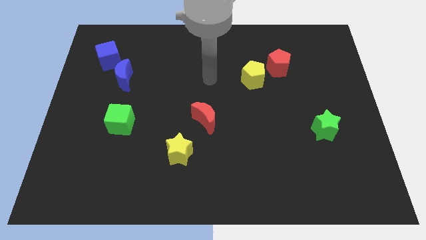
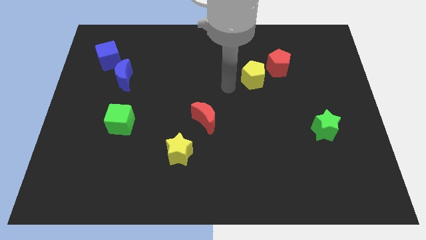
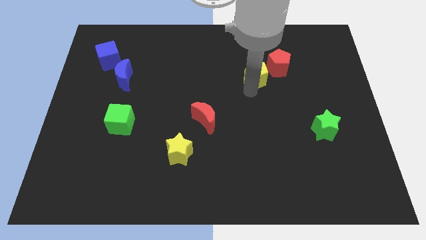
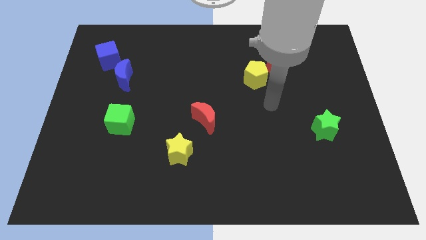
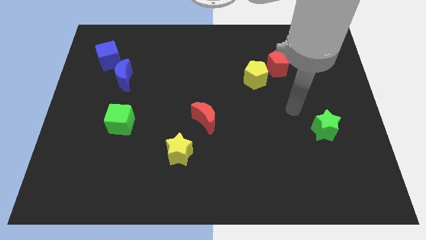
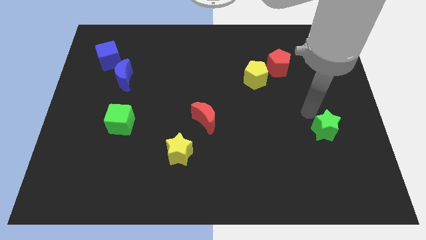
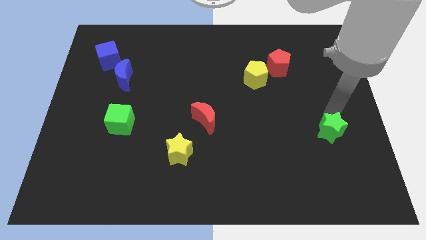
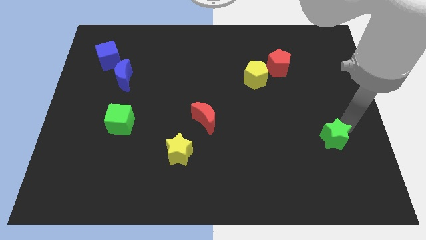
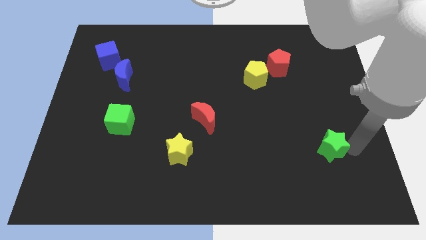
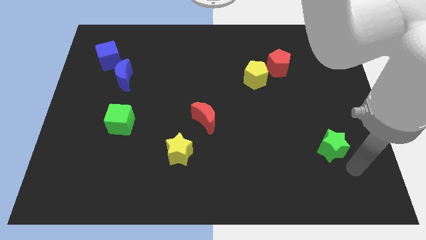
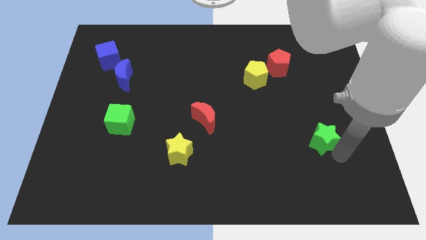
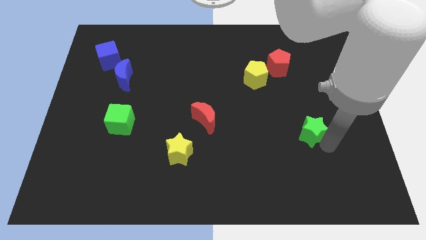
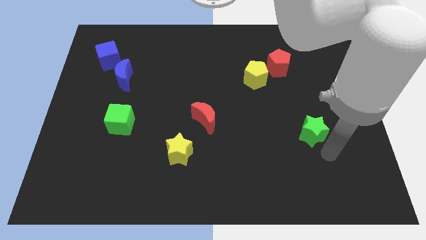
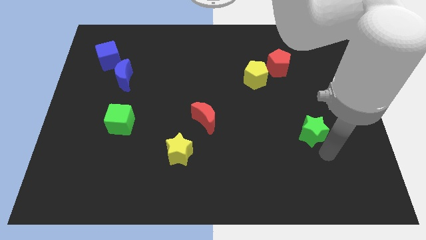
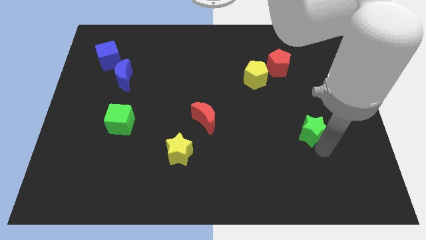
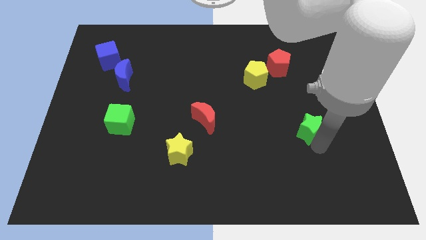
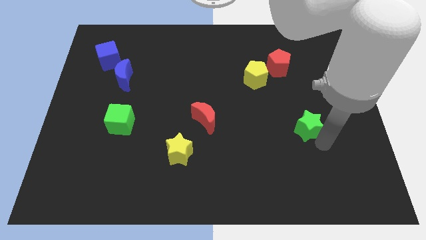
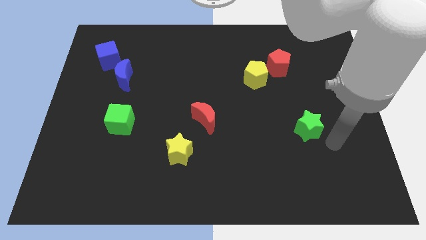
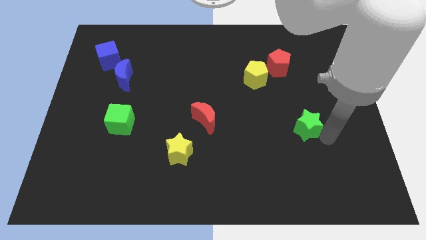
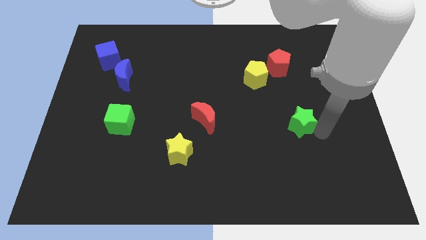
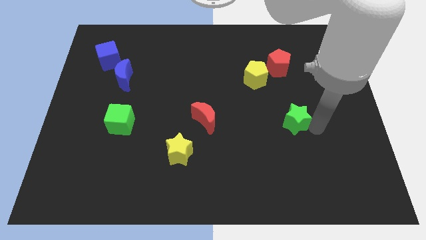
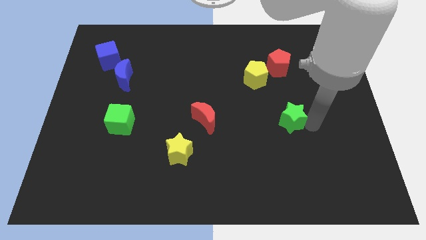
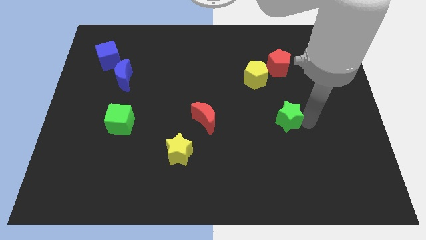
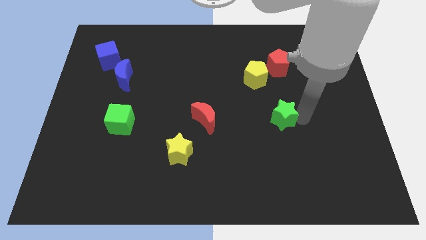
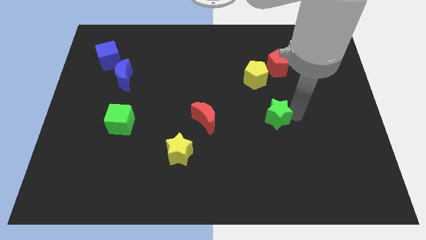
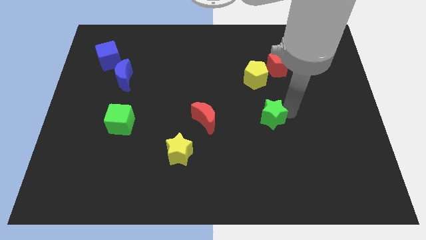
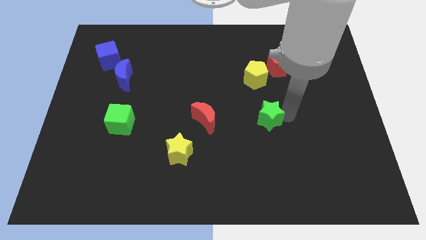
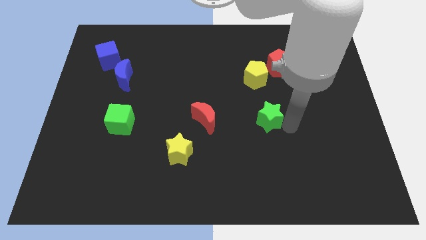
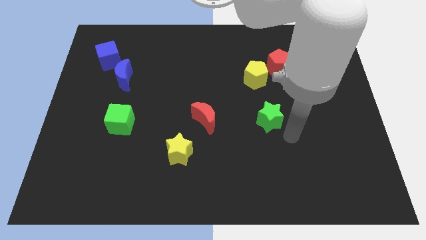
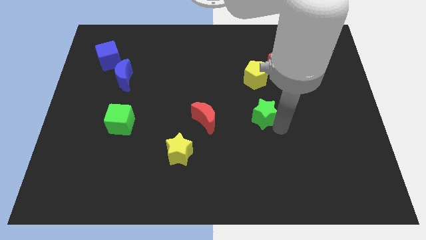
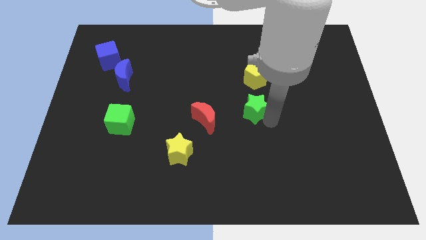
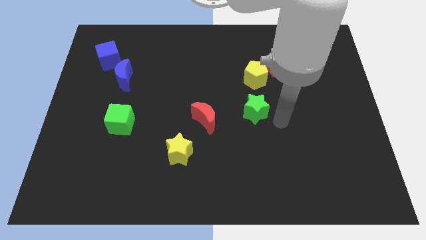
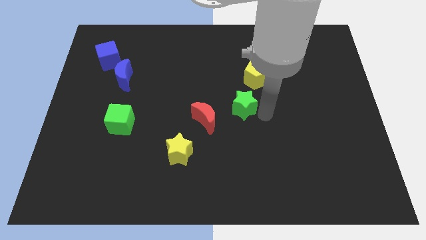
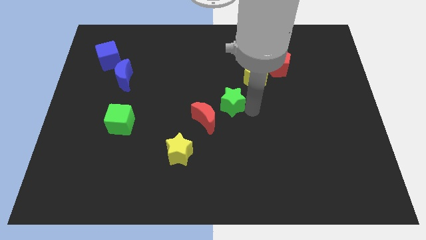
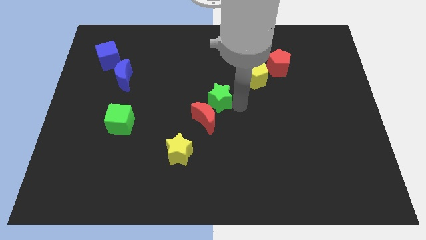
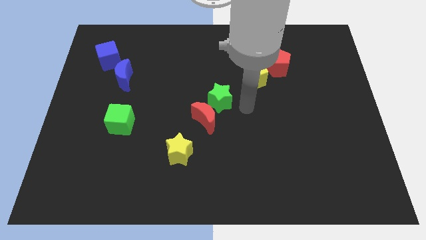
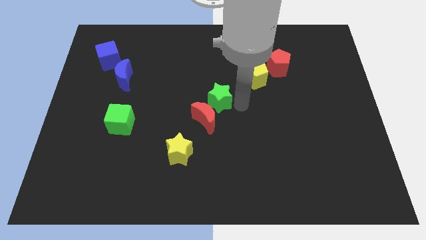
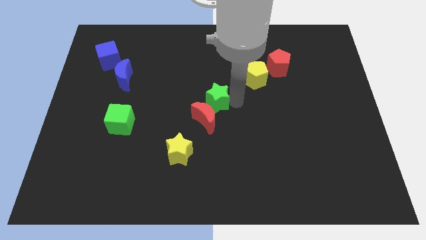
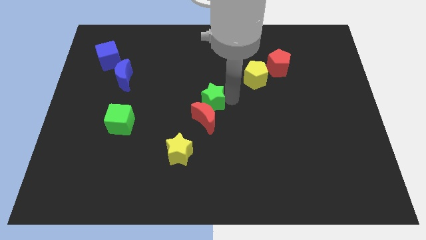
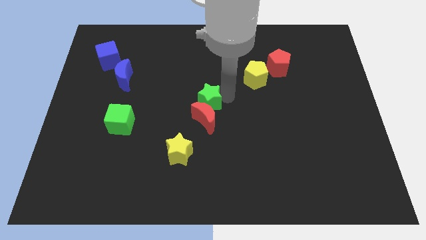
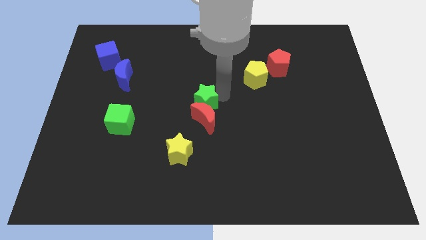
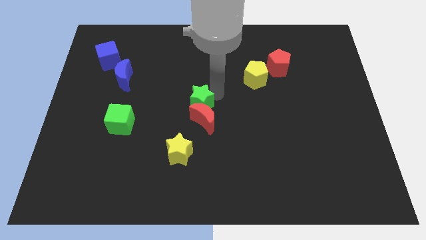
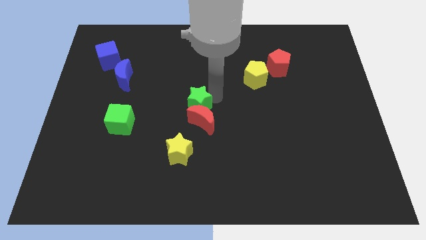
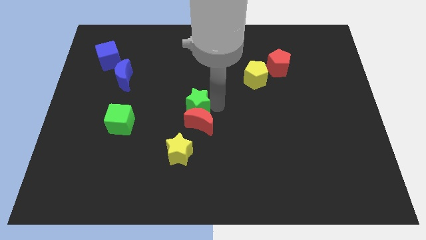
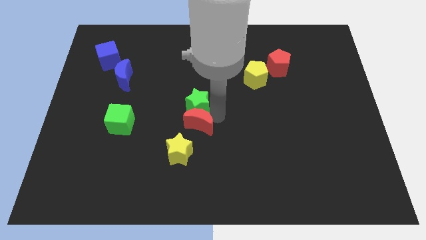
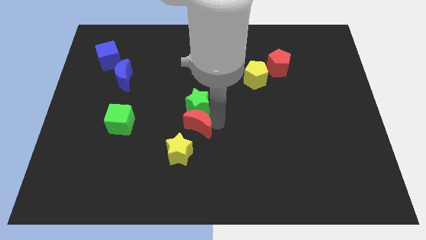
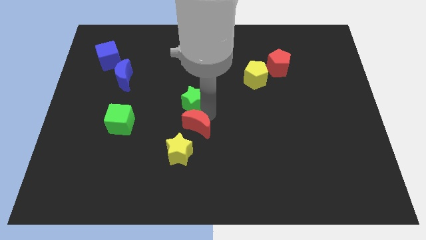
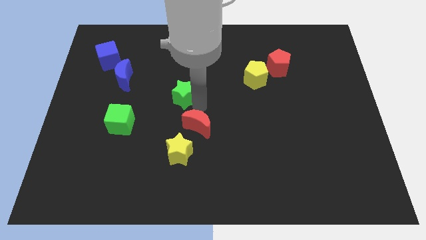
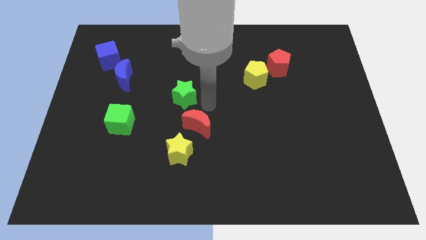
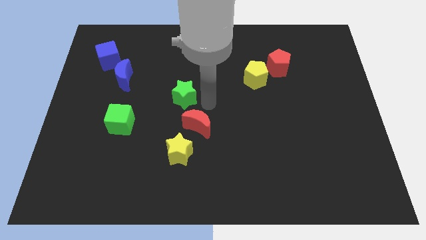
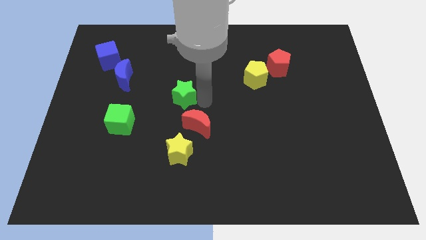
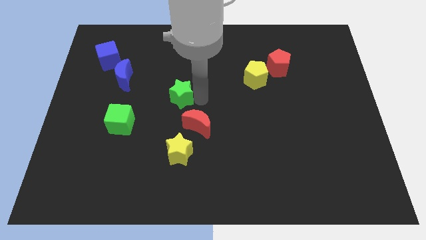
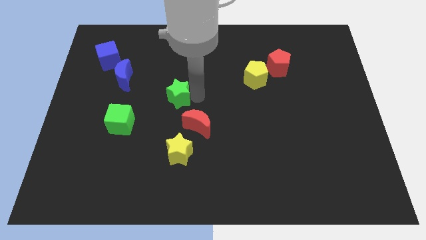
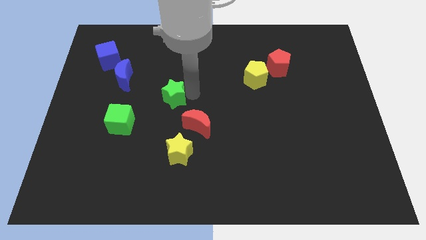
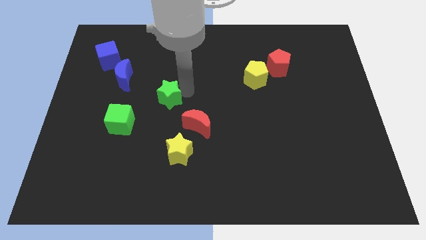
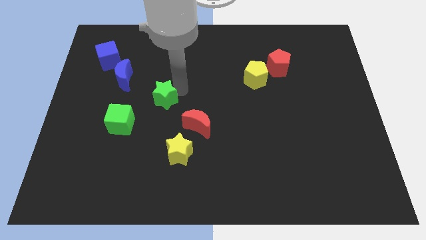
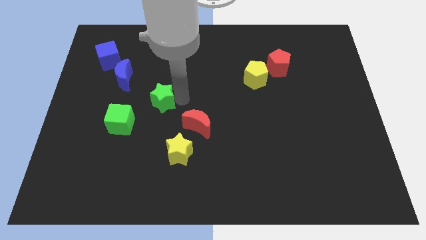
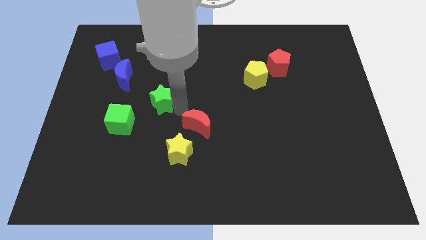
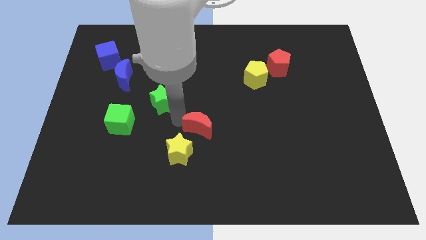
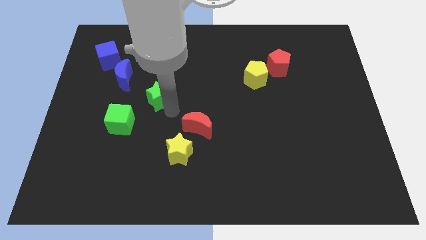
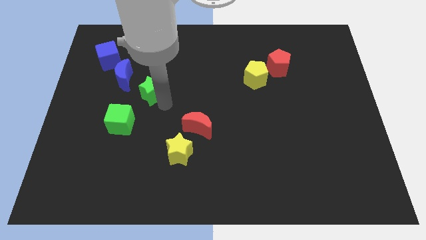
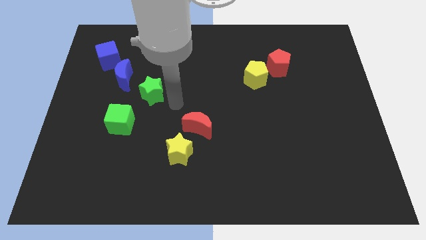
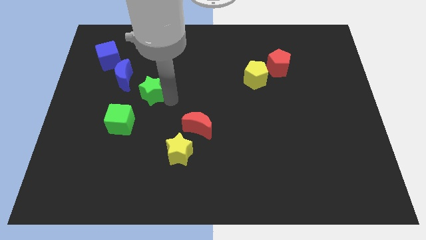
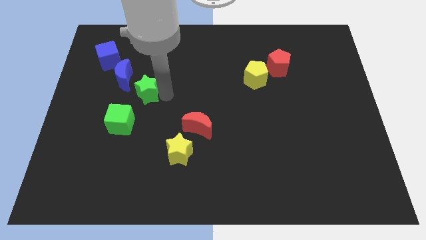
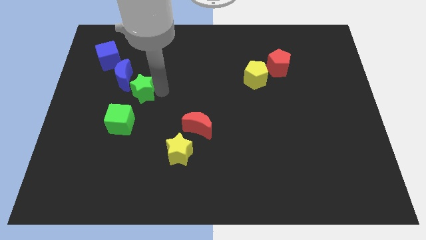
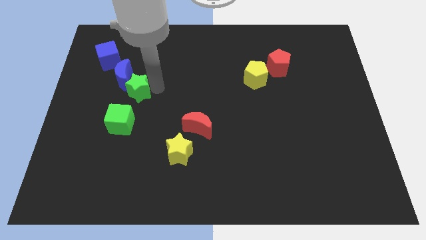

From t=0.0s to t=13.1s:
push the green star to the blue moon

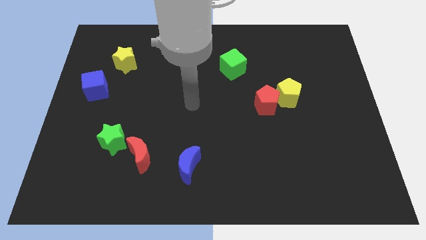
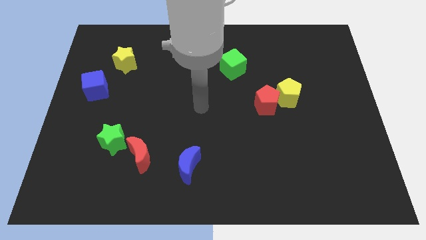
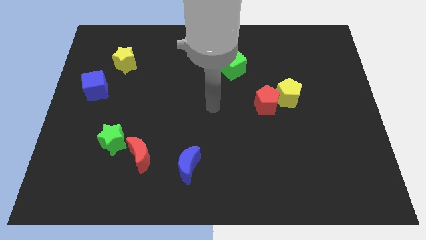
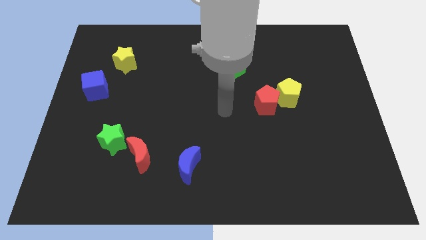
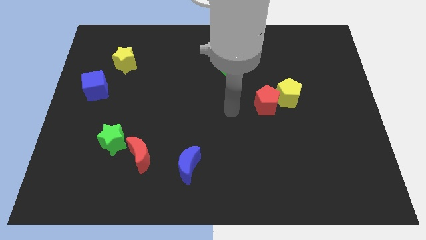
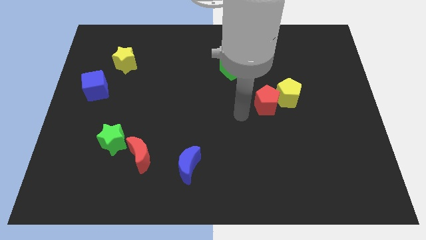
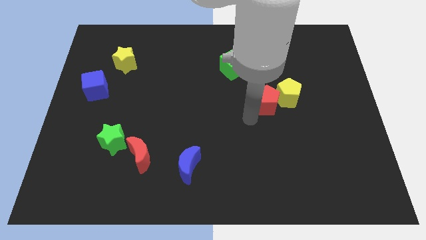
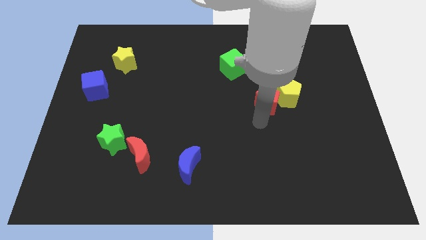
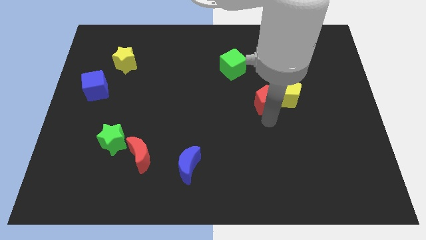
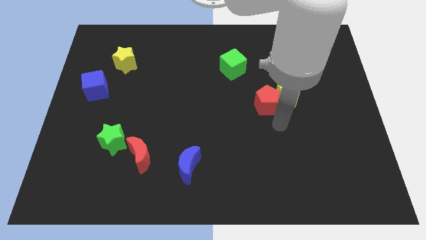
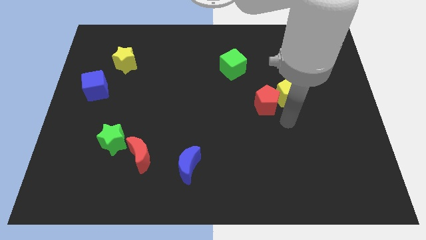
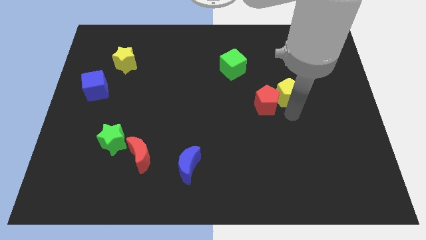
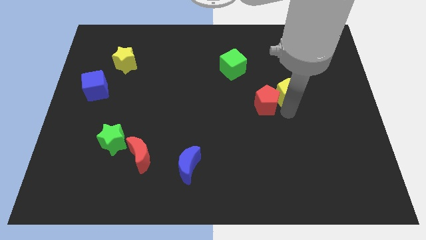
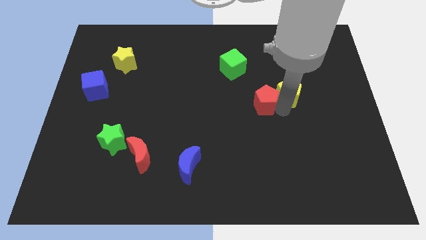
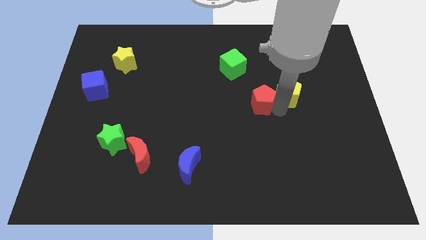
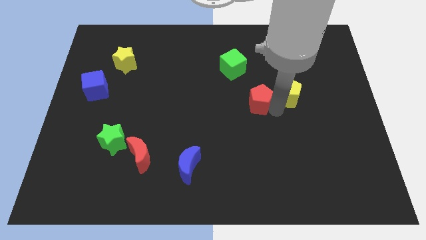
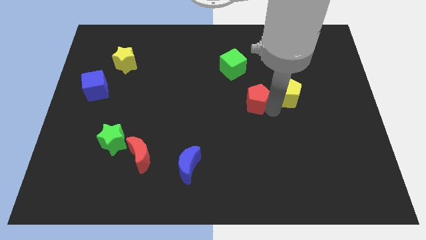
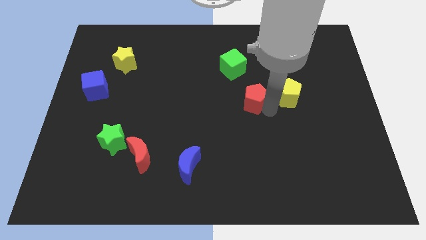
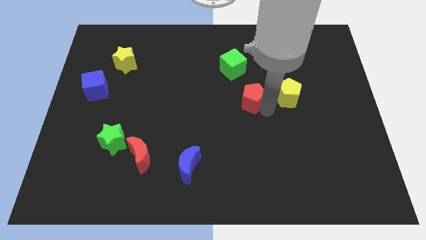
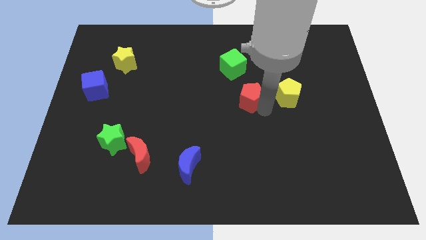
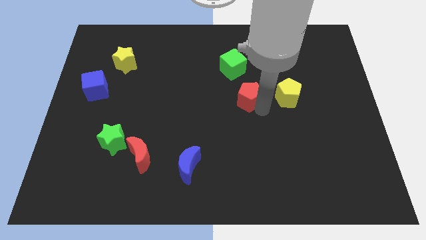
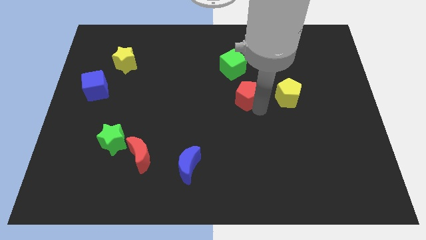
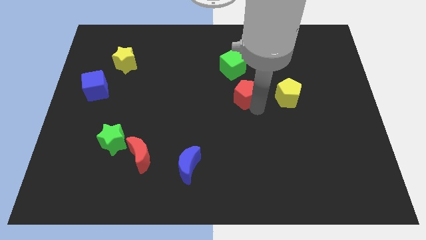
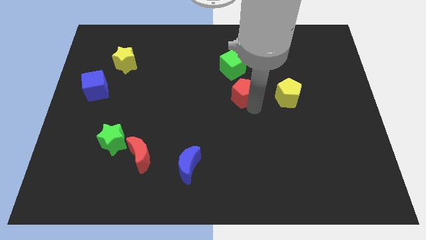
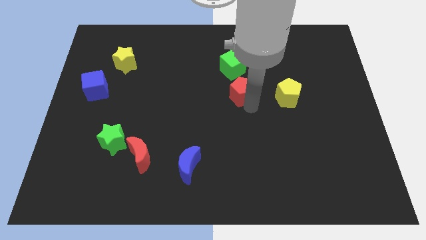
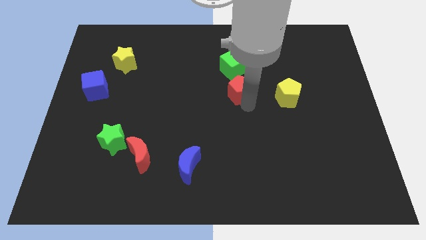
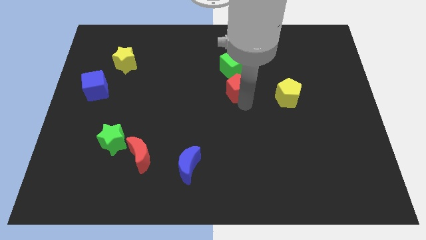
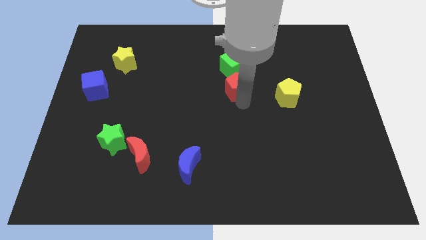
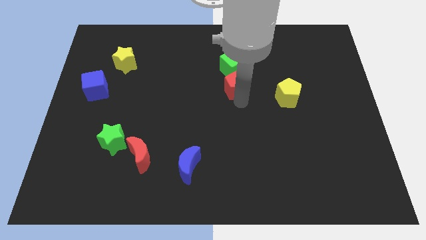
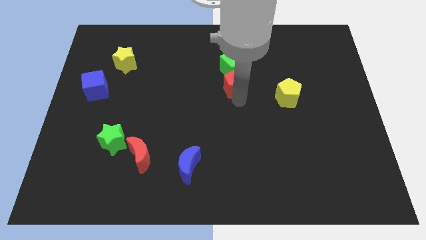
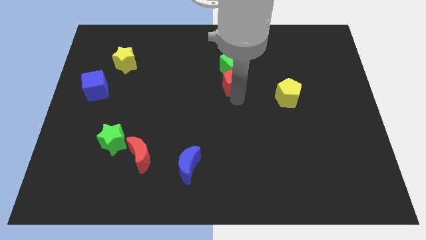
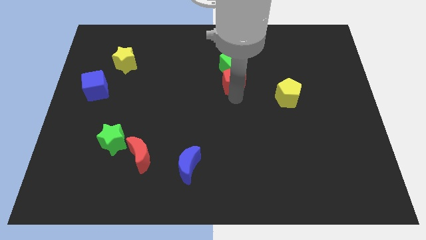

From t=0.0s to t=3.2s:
put the red pentagon towards the green cube
